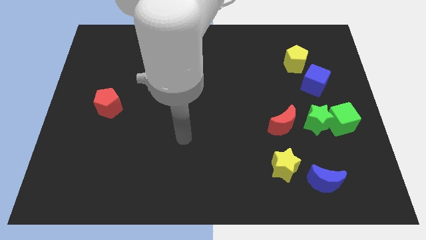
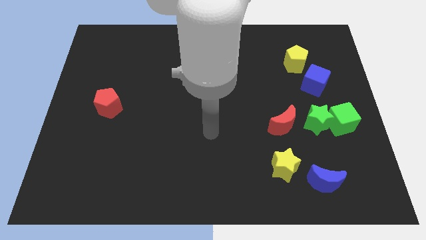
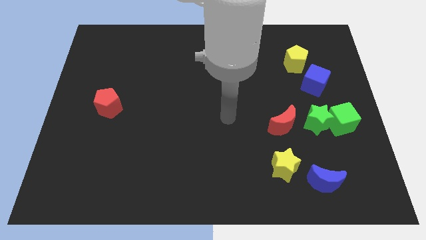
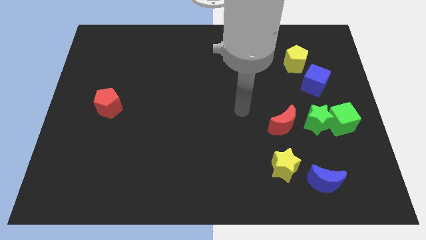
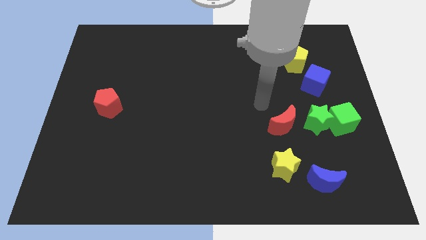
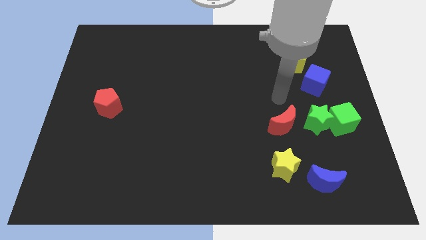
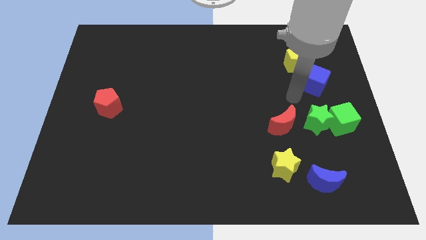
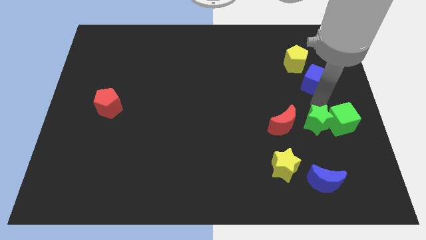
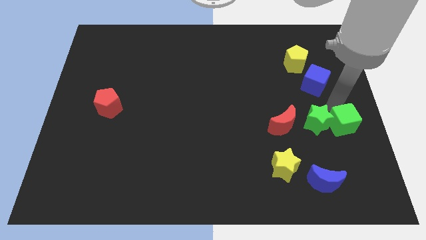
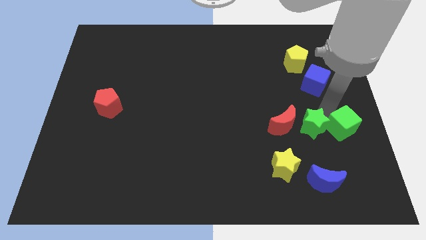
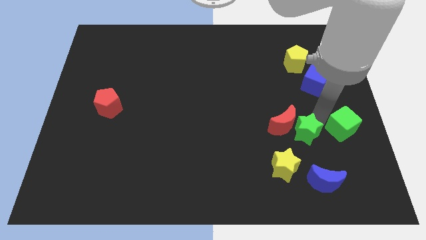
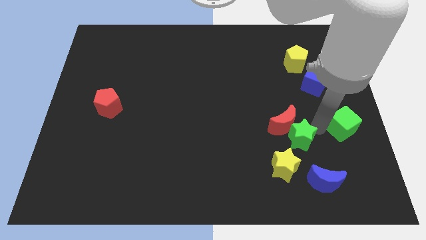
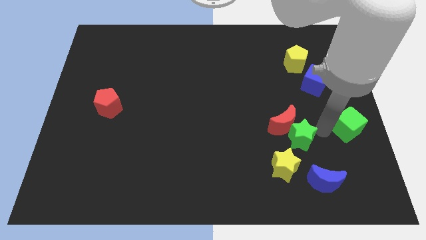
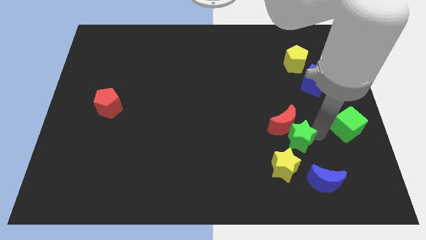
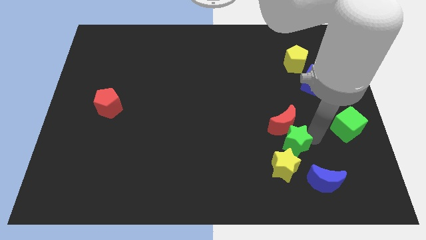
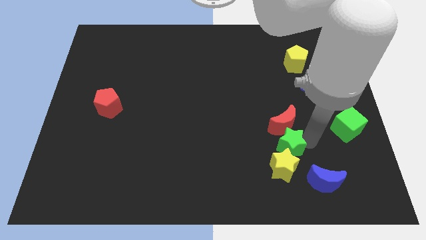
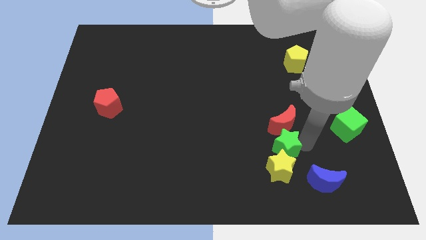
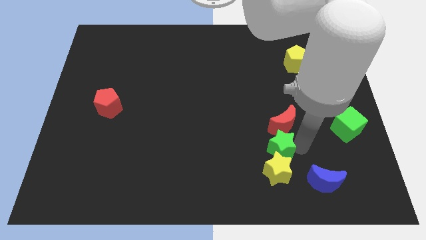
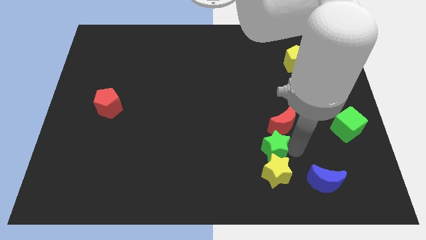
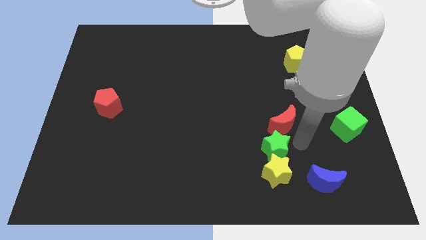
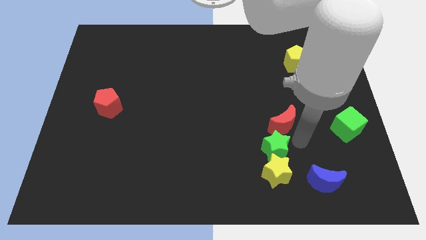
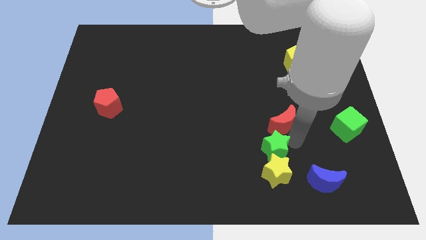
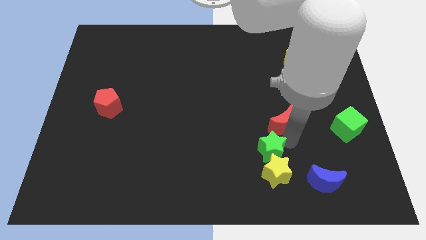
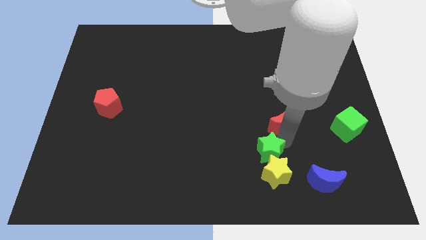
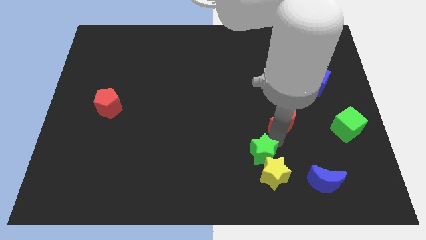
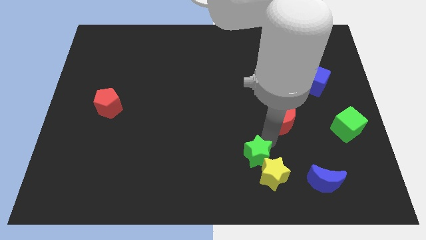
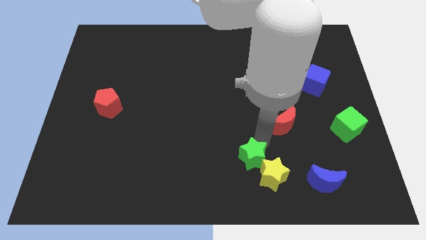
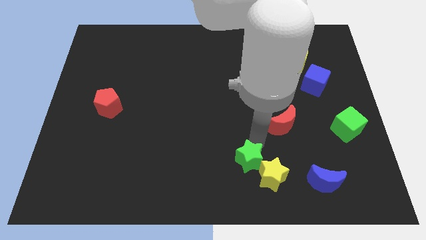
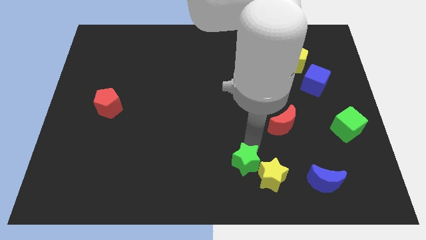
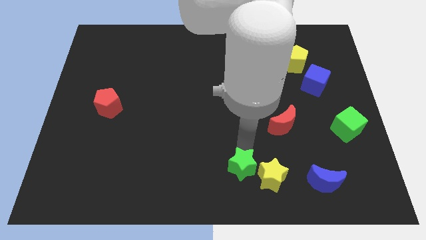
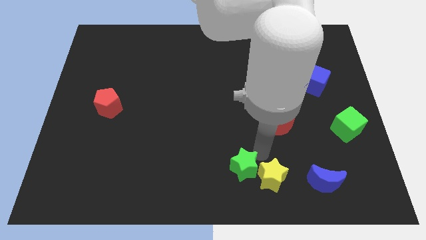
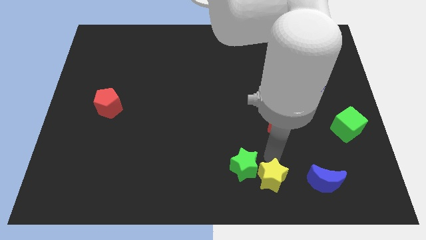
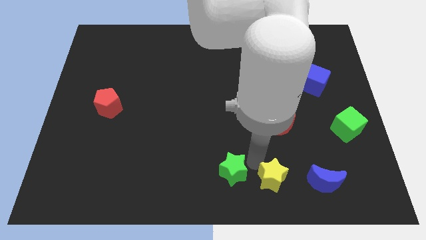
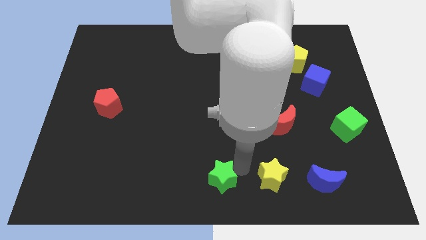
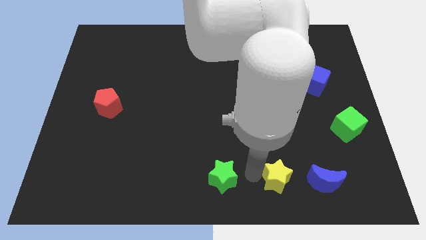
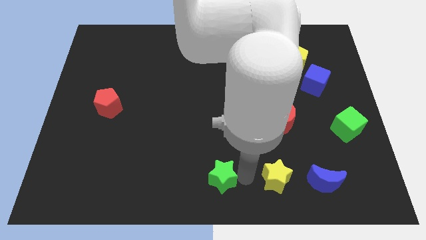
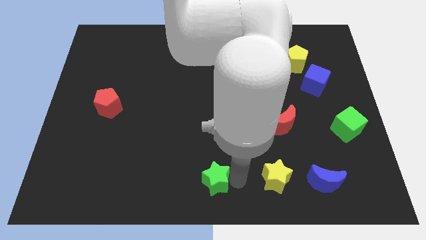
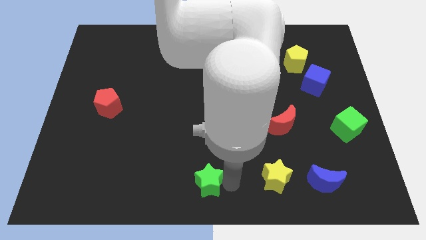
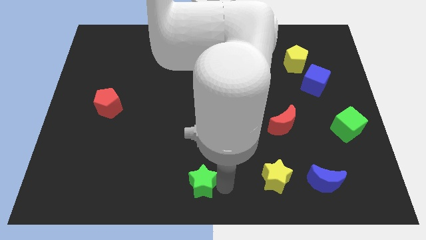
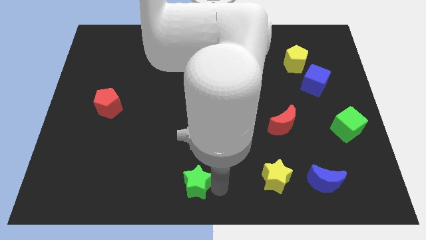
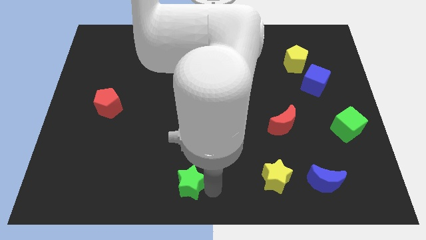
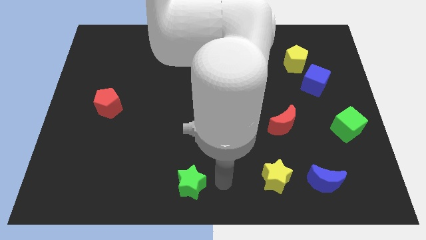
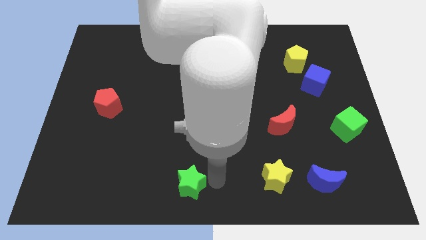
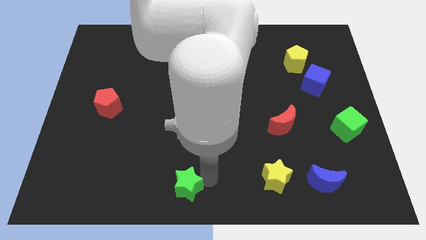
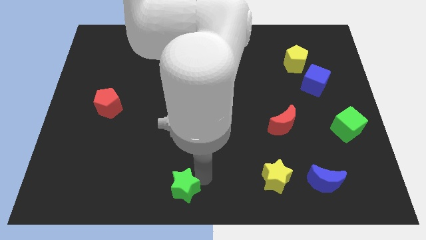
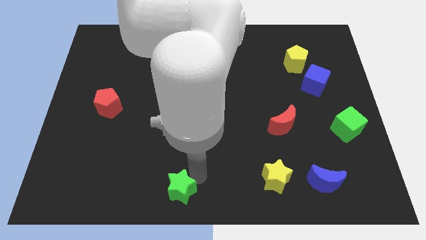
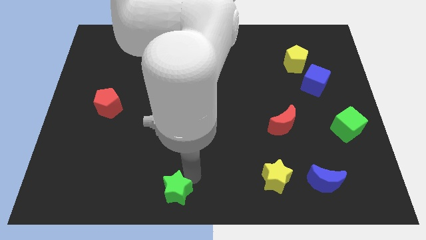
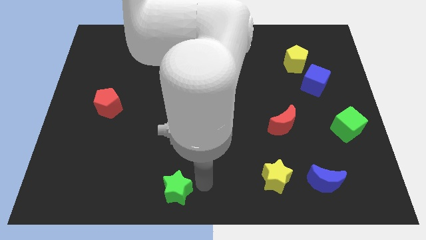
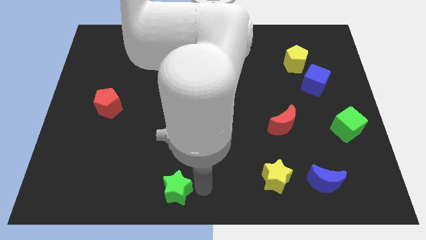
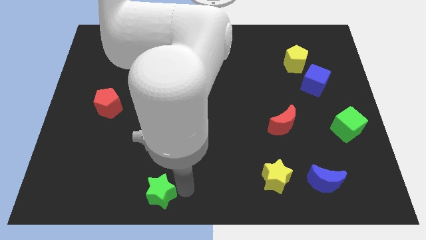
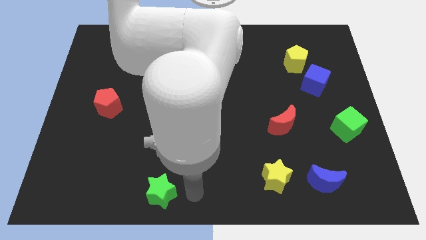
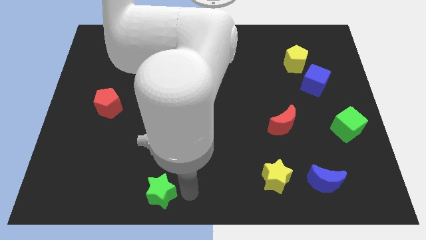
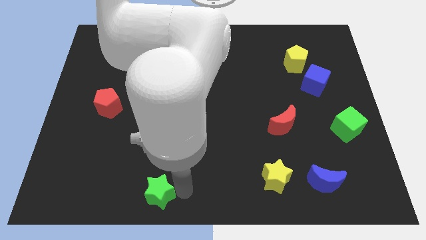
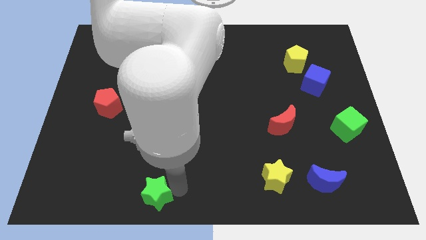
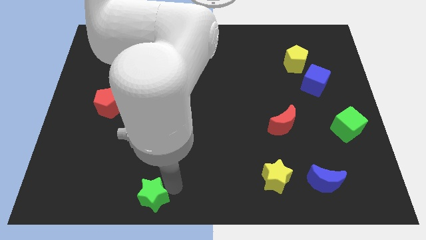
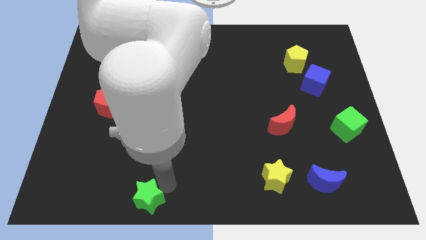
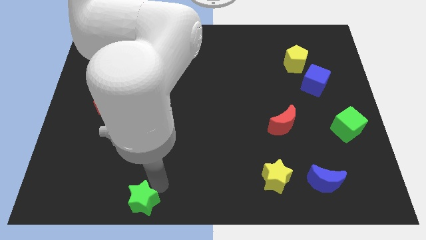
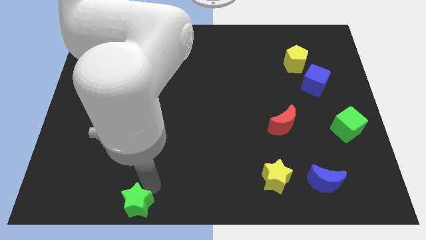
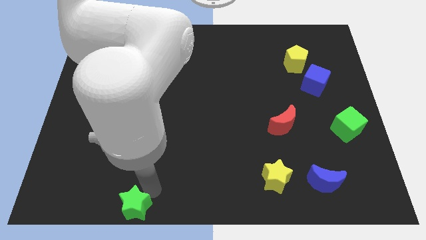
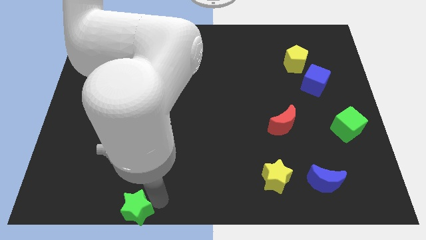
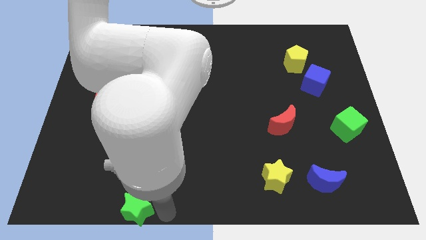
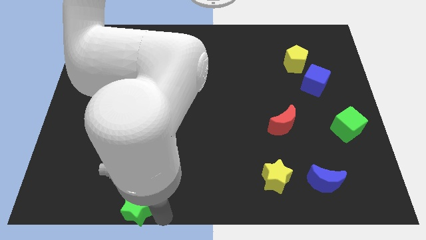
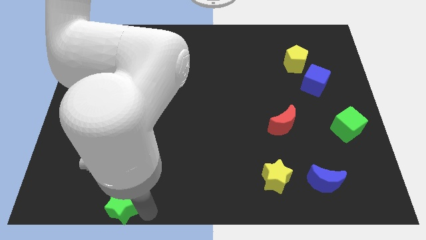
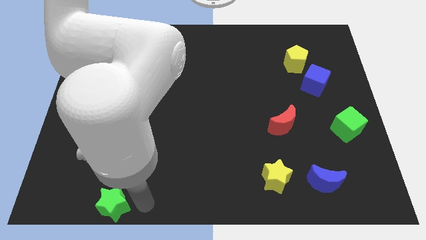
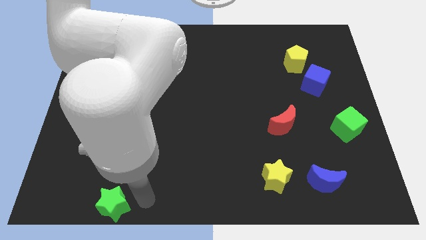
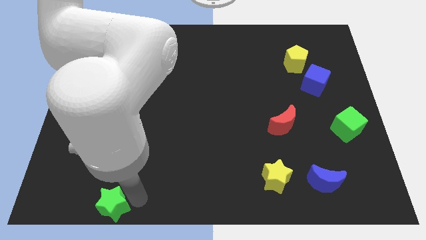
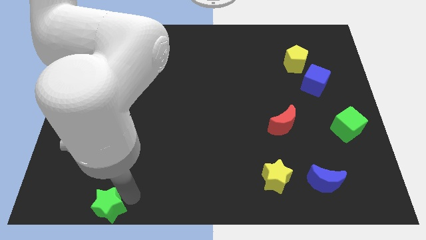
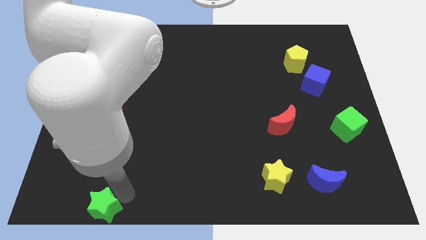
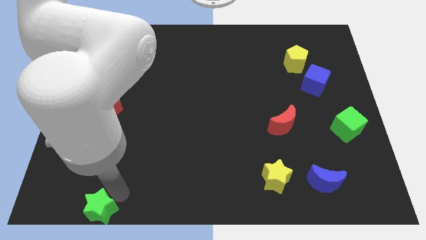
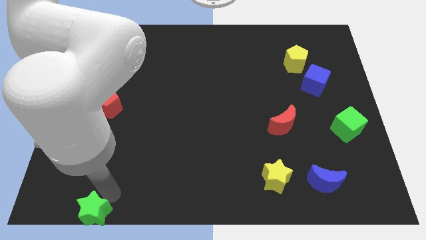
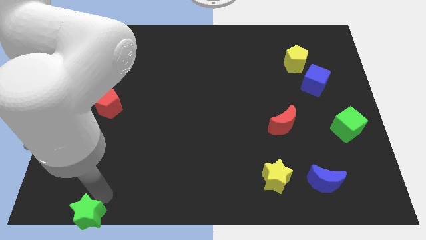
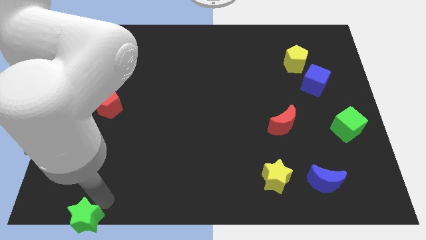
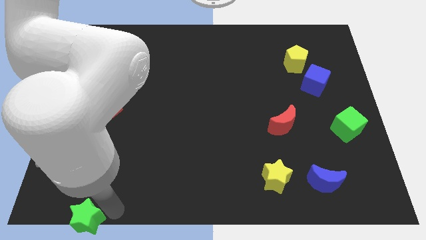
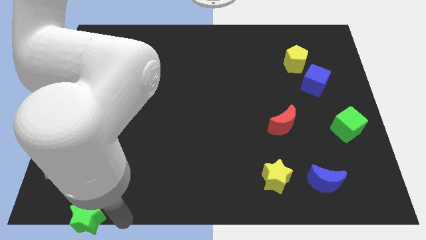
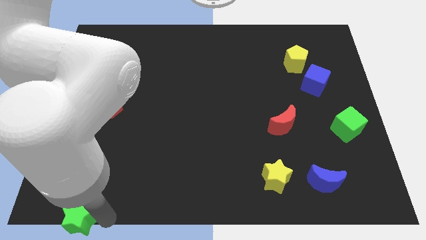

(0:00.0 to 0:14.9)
push the green star to the lower left corner

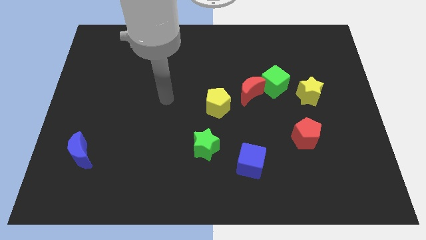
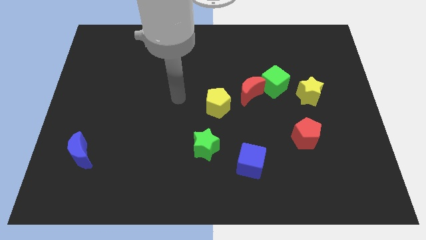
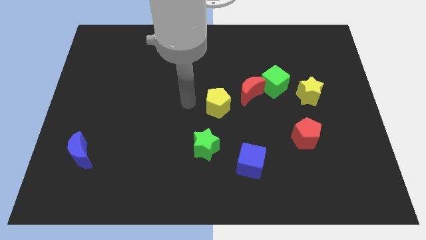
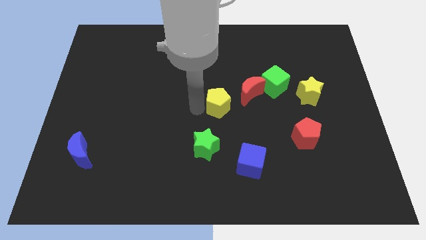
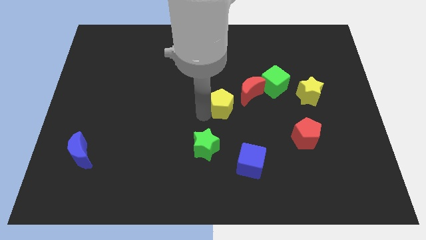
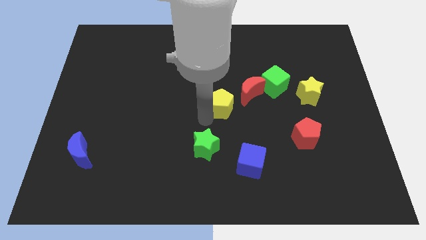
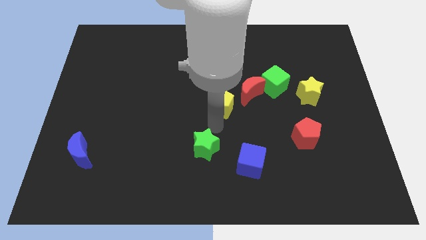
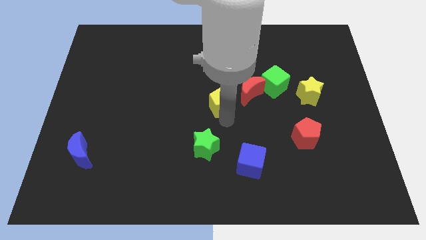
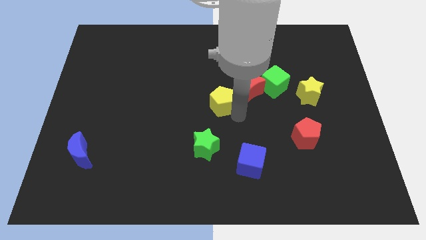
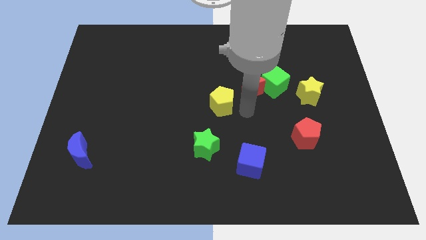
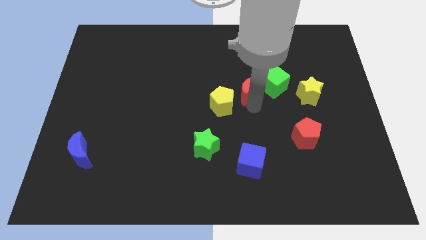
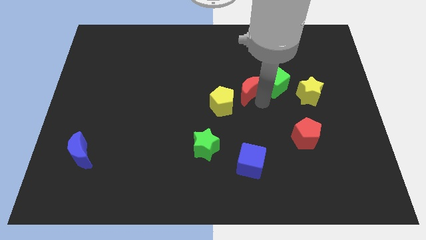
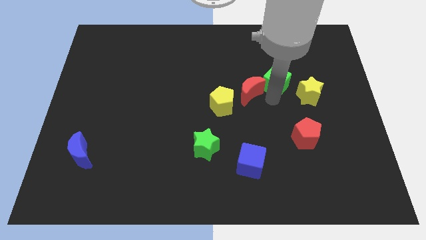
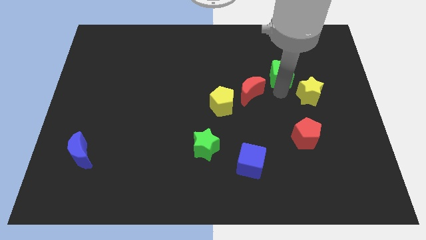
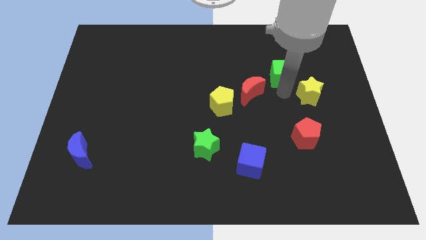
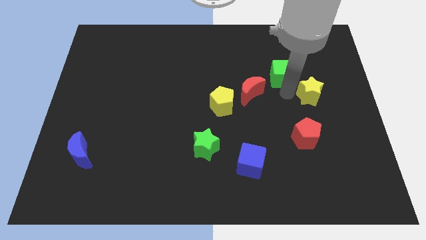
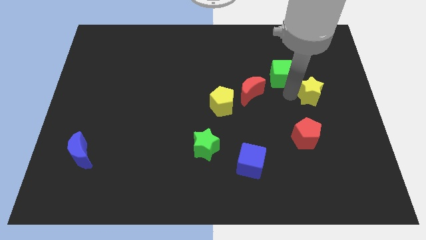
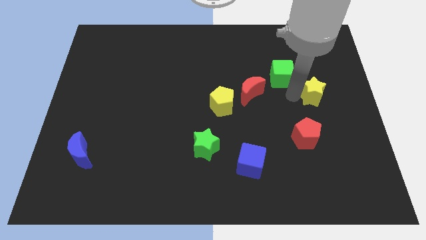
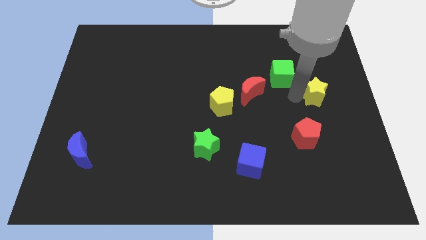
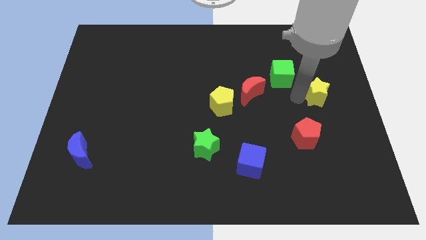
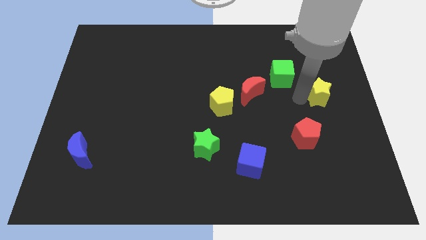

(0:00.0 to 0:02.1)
put the yellow star to the center right
